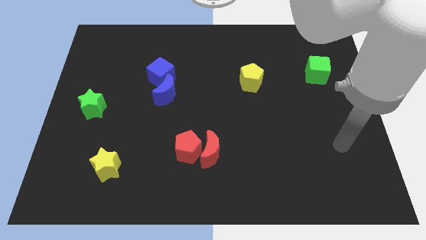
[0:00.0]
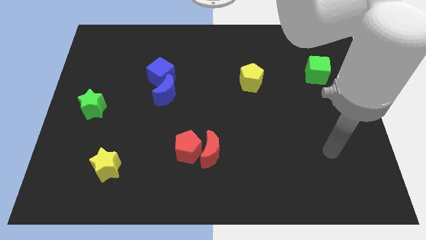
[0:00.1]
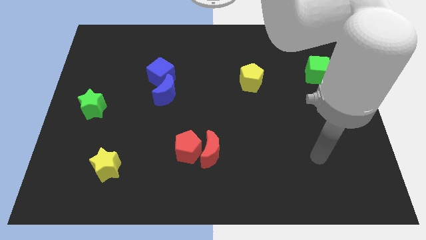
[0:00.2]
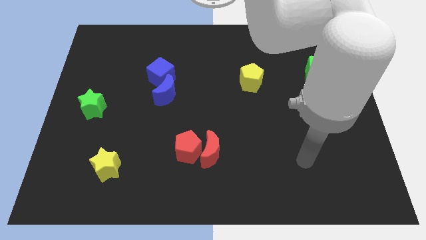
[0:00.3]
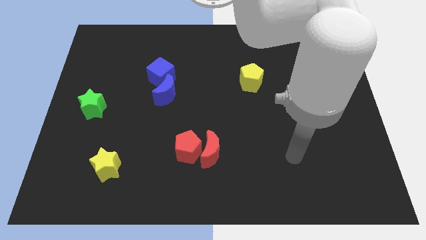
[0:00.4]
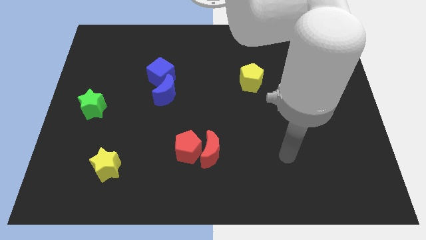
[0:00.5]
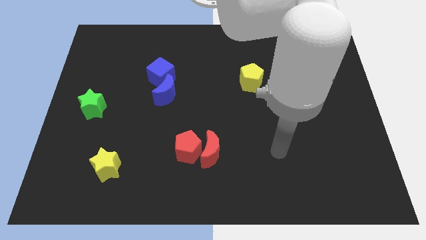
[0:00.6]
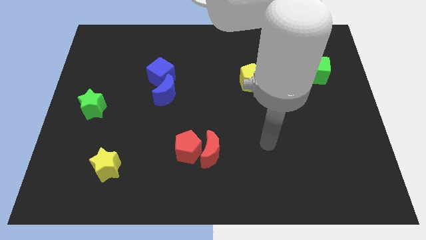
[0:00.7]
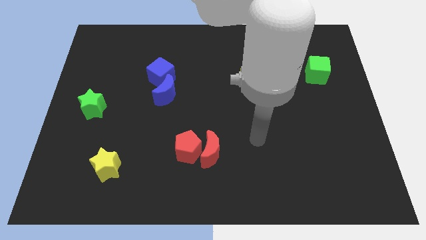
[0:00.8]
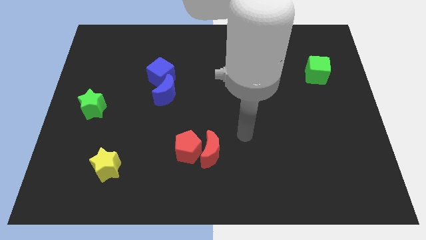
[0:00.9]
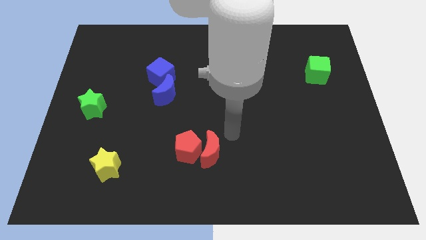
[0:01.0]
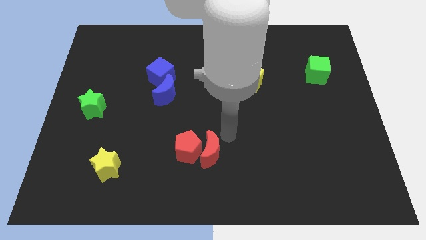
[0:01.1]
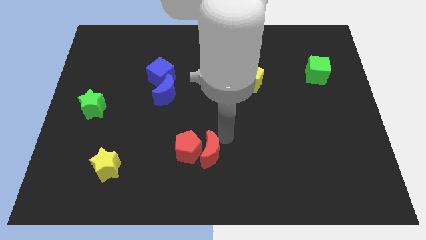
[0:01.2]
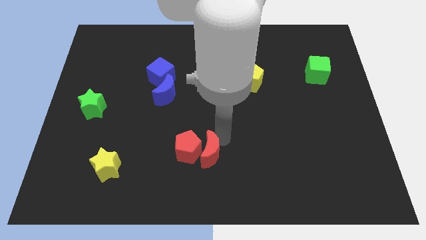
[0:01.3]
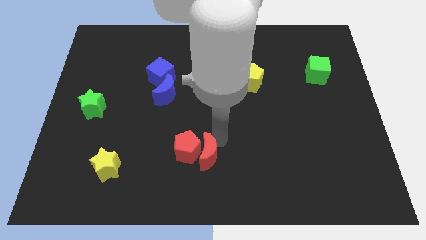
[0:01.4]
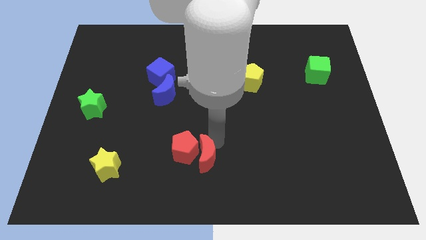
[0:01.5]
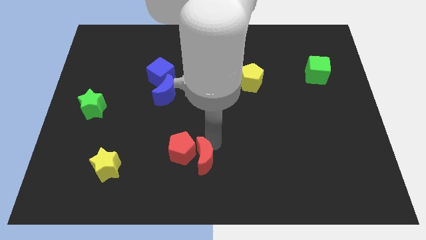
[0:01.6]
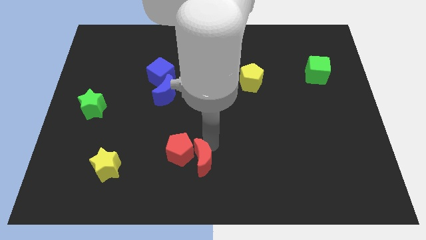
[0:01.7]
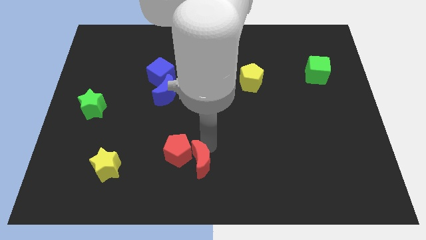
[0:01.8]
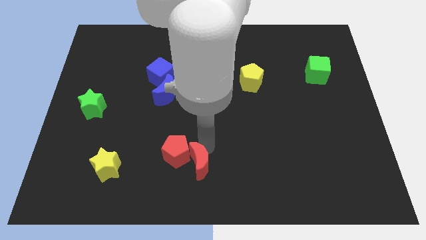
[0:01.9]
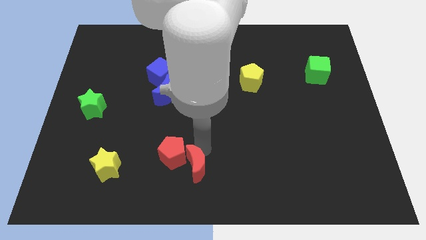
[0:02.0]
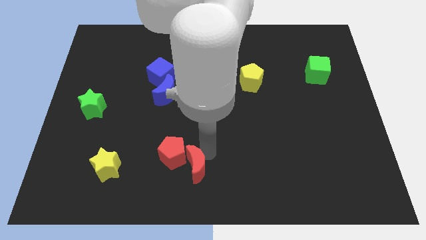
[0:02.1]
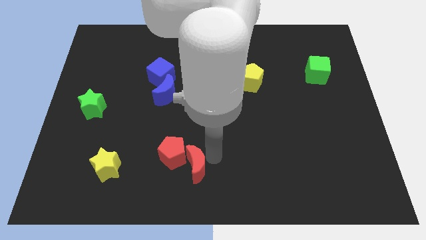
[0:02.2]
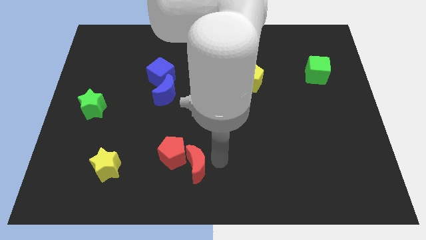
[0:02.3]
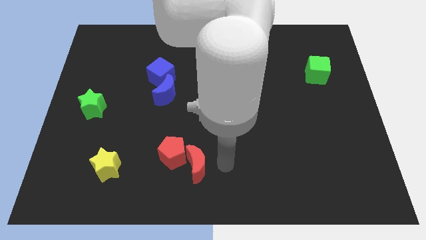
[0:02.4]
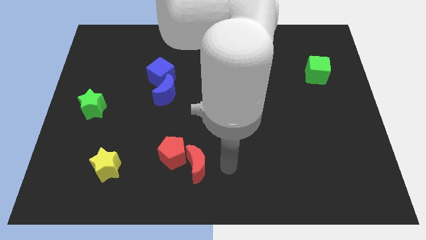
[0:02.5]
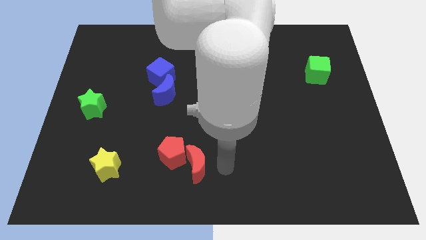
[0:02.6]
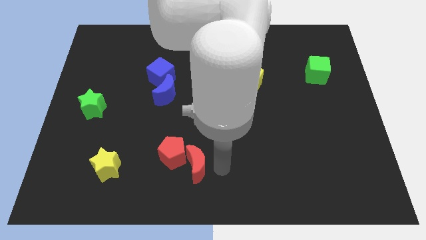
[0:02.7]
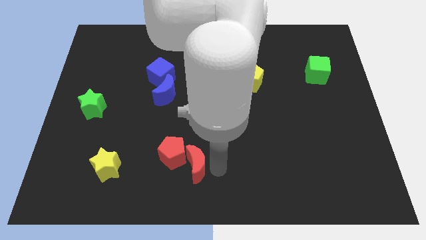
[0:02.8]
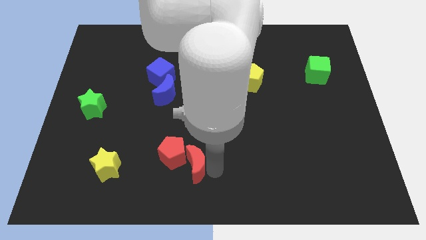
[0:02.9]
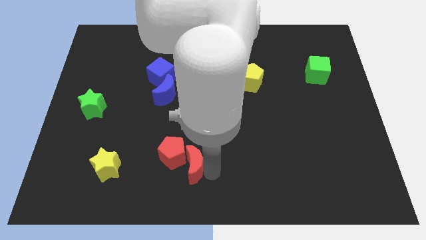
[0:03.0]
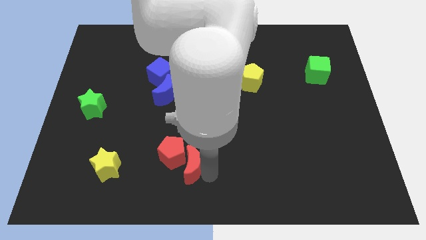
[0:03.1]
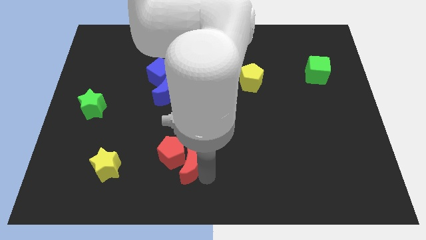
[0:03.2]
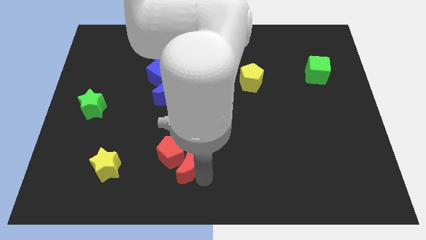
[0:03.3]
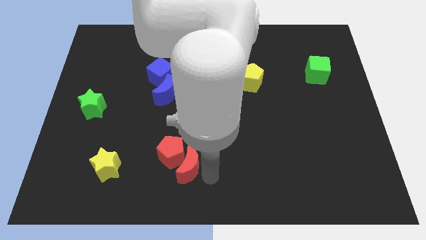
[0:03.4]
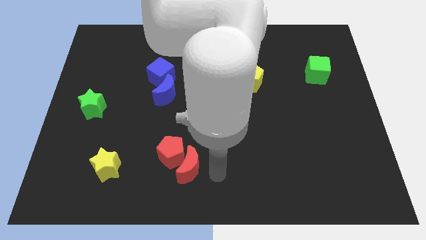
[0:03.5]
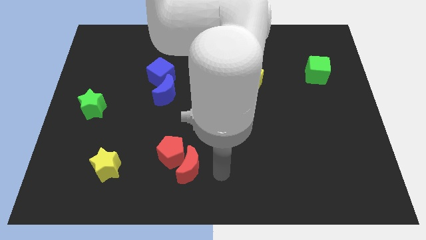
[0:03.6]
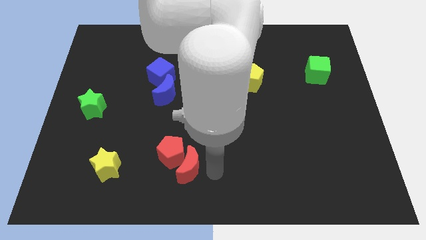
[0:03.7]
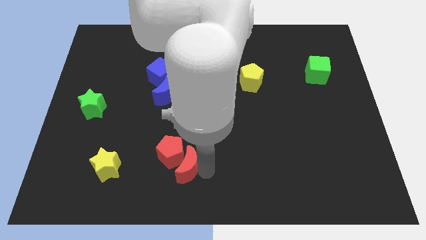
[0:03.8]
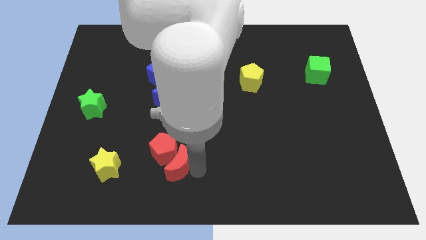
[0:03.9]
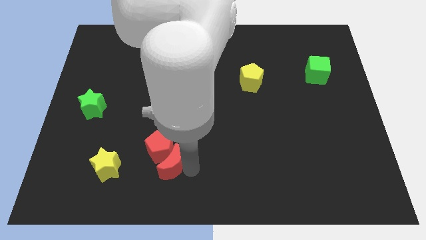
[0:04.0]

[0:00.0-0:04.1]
push the red moon left a bit

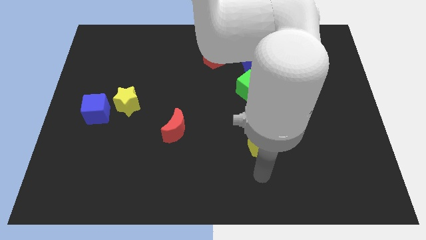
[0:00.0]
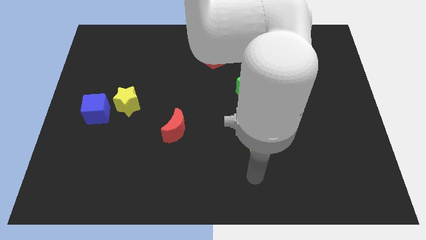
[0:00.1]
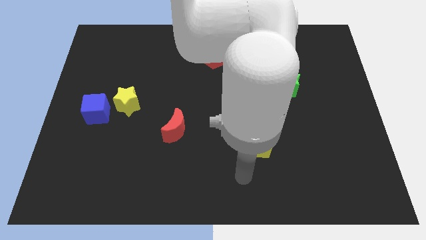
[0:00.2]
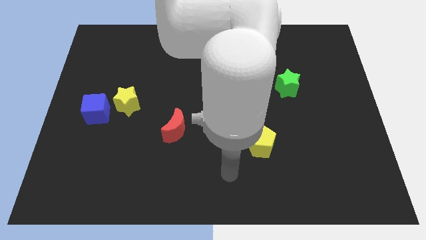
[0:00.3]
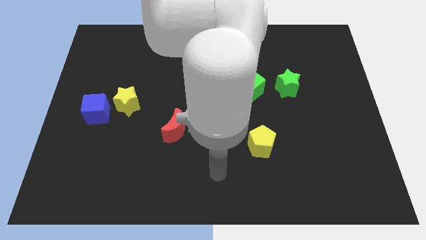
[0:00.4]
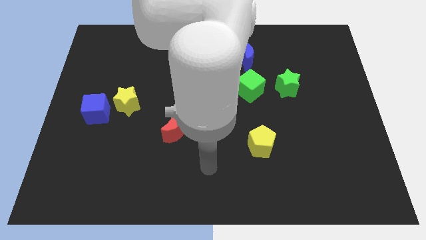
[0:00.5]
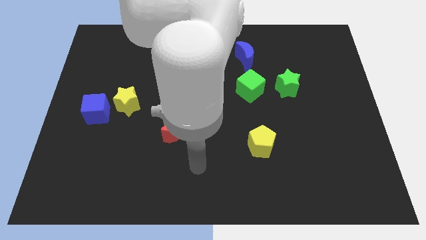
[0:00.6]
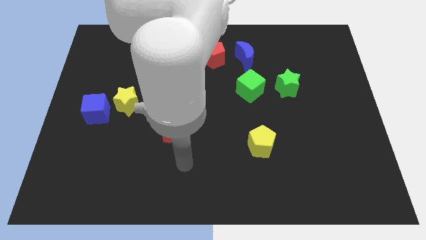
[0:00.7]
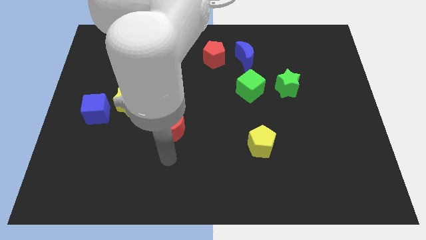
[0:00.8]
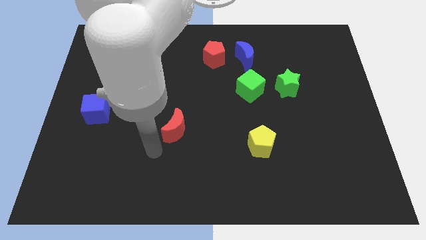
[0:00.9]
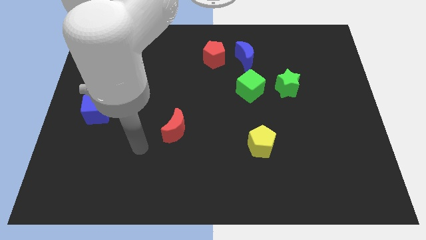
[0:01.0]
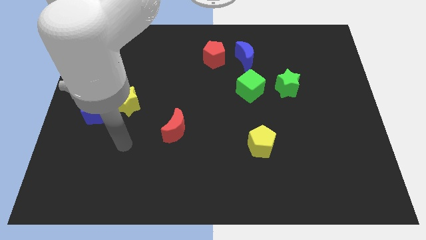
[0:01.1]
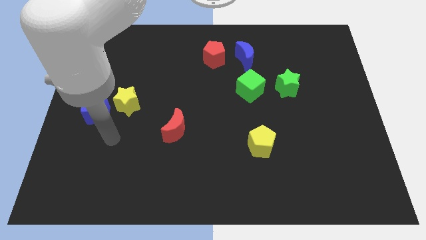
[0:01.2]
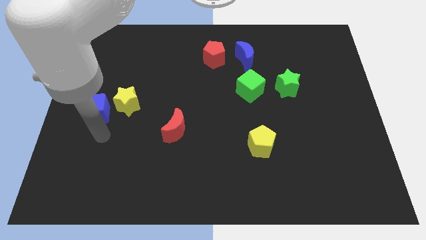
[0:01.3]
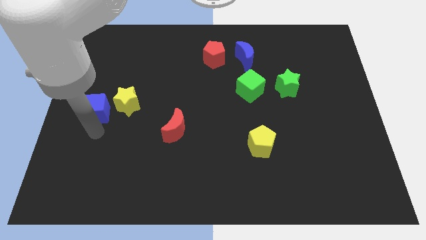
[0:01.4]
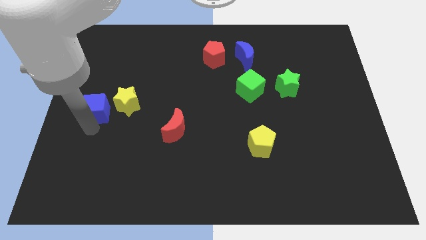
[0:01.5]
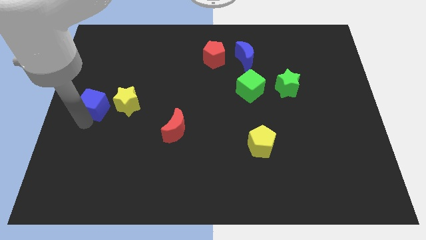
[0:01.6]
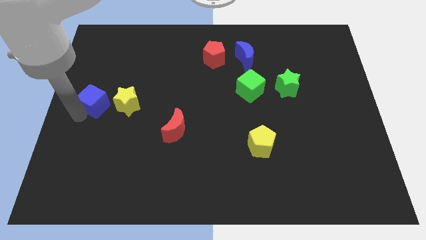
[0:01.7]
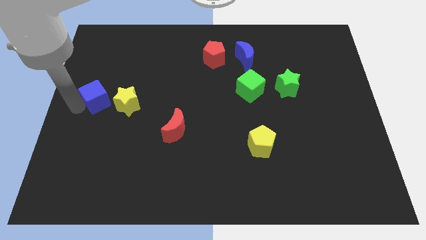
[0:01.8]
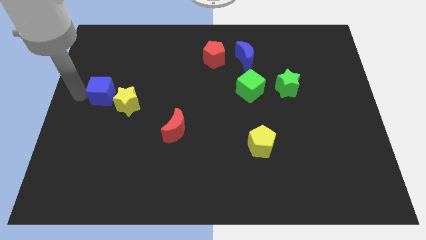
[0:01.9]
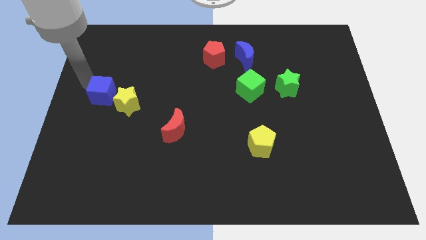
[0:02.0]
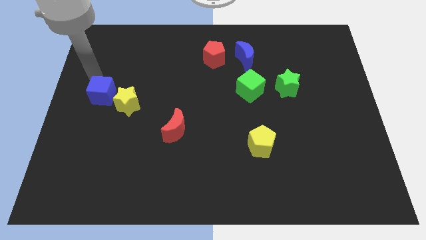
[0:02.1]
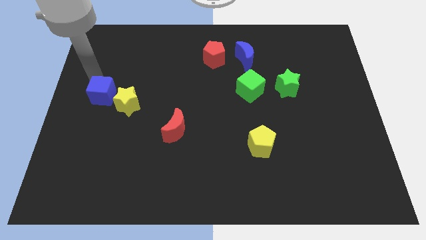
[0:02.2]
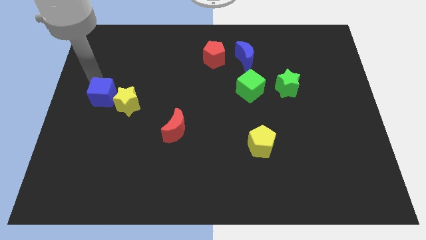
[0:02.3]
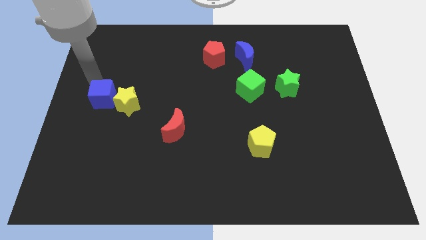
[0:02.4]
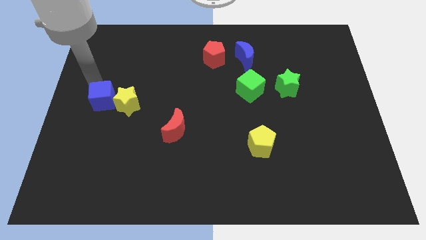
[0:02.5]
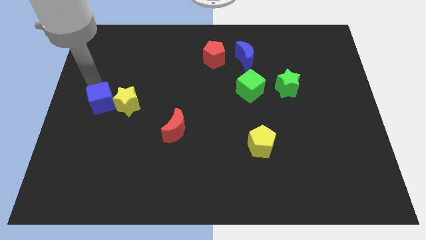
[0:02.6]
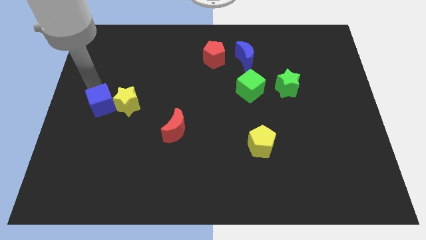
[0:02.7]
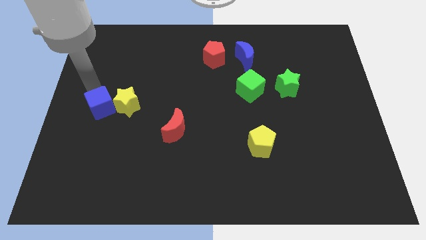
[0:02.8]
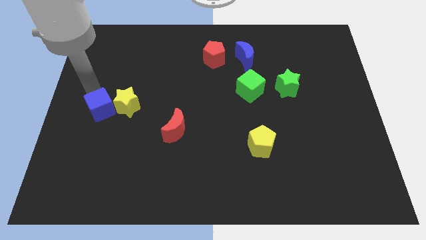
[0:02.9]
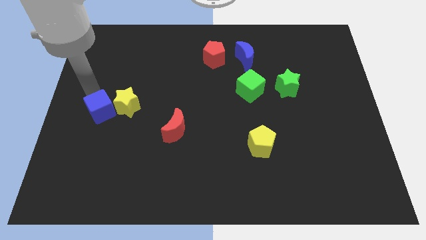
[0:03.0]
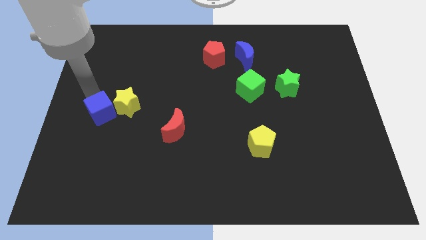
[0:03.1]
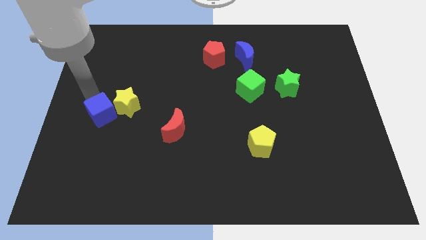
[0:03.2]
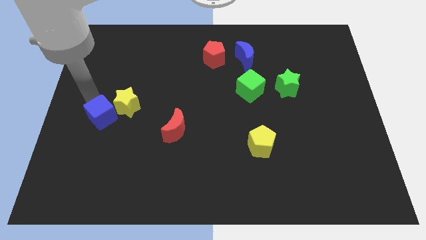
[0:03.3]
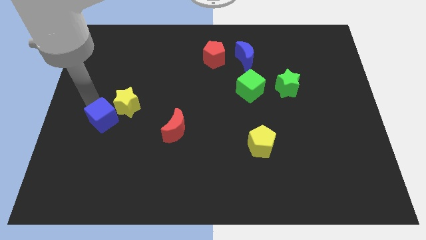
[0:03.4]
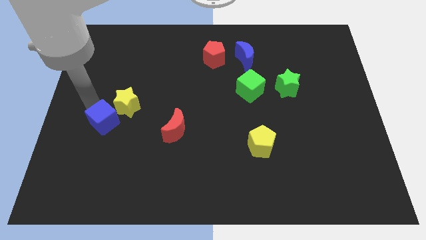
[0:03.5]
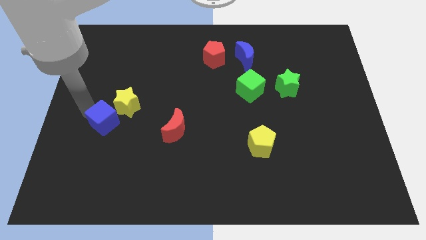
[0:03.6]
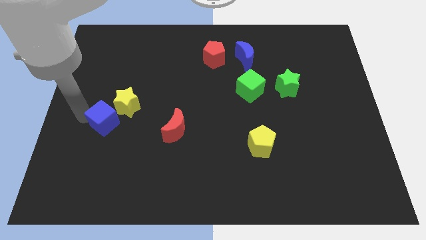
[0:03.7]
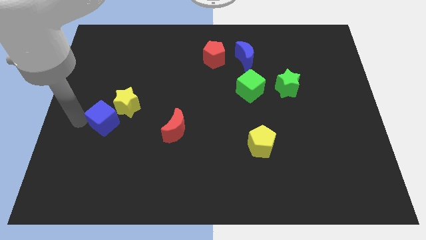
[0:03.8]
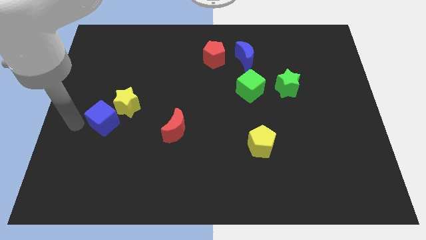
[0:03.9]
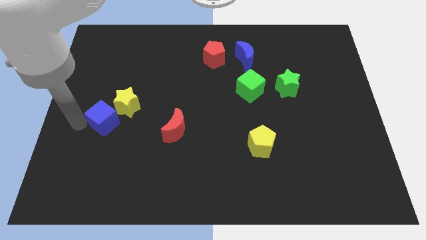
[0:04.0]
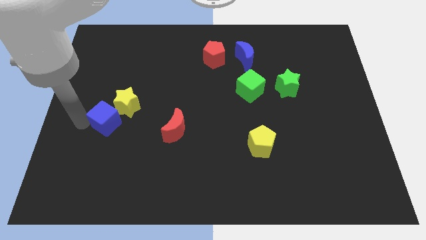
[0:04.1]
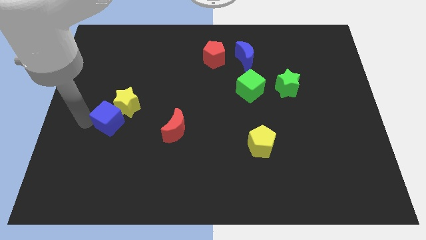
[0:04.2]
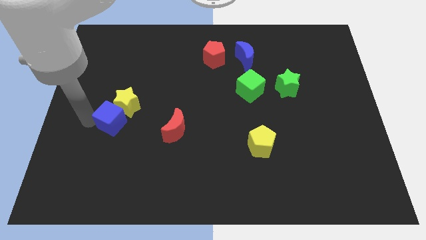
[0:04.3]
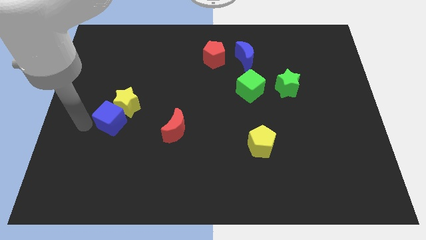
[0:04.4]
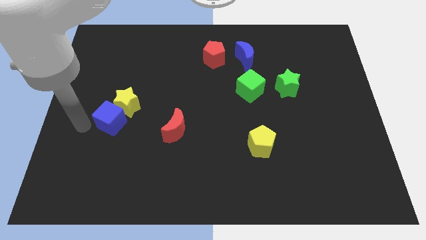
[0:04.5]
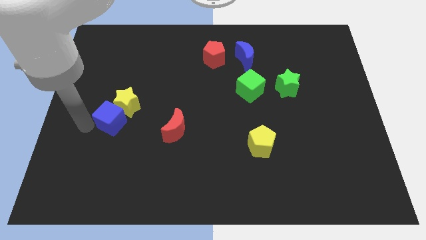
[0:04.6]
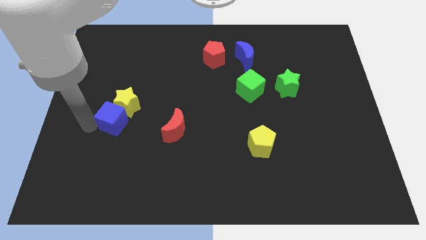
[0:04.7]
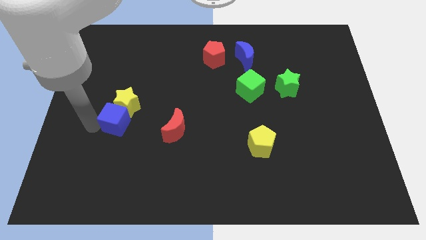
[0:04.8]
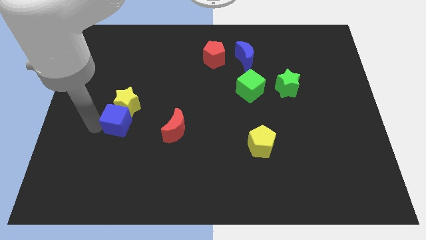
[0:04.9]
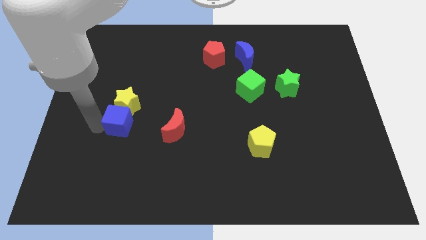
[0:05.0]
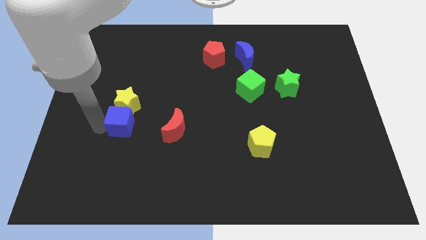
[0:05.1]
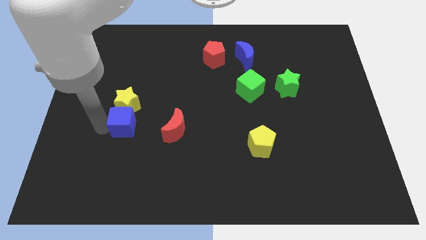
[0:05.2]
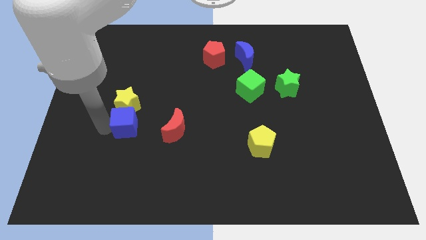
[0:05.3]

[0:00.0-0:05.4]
push the blue cube somewhat right
